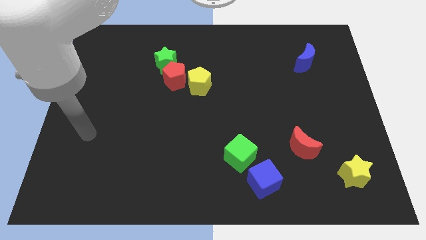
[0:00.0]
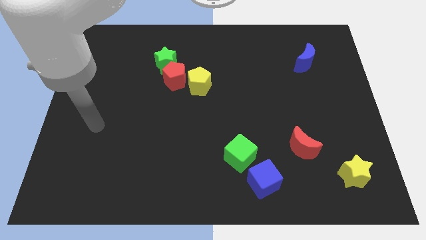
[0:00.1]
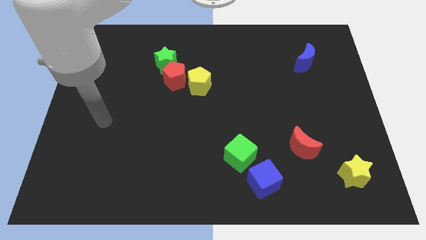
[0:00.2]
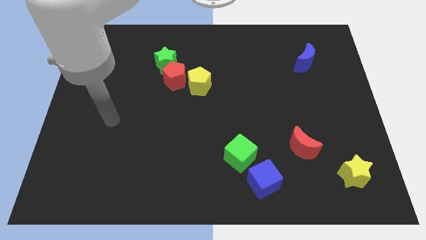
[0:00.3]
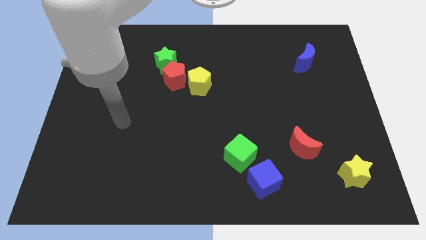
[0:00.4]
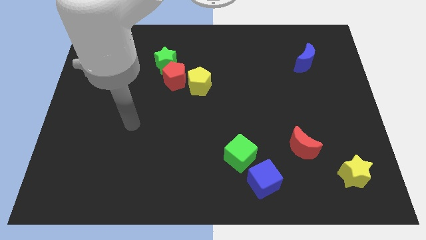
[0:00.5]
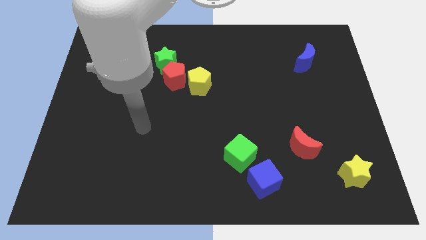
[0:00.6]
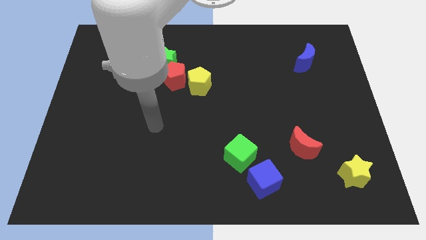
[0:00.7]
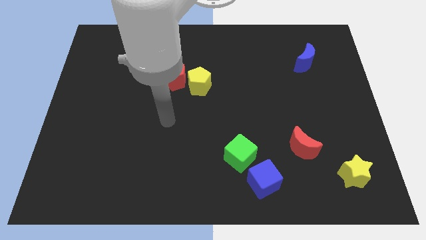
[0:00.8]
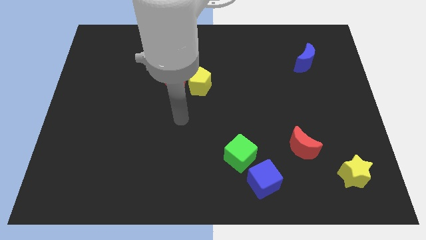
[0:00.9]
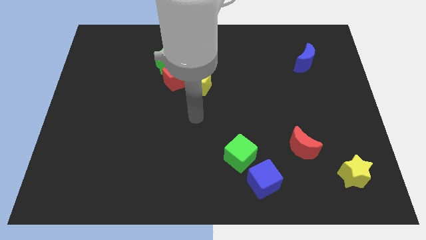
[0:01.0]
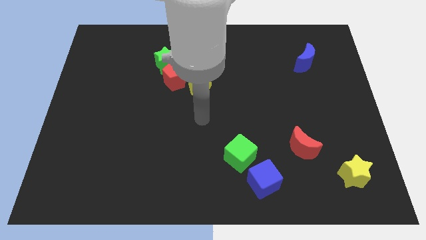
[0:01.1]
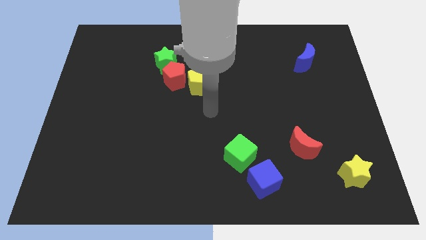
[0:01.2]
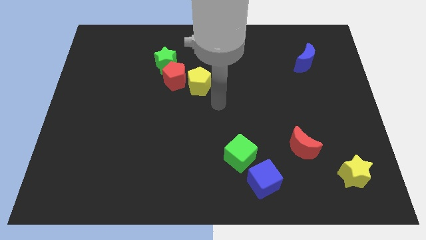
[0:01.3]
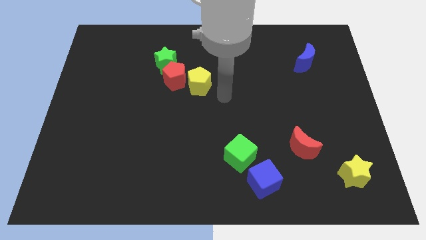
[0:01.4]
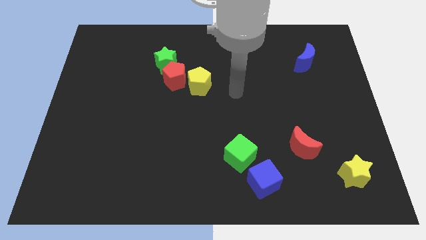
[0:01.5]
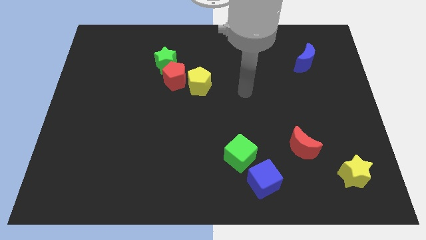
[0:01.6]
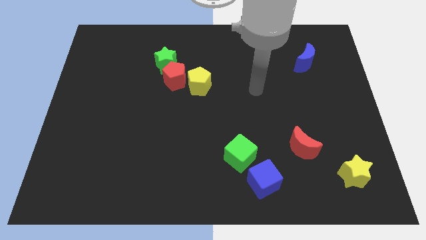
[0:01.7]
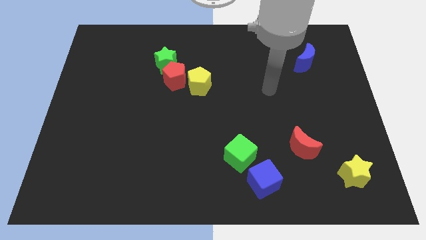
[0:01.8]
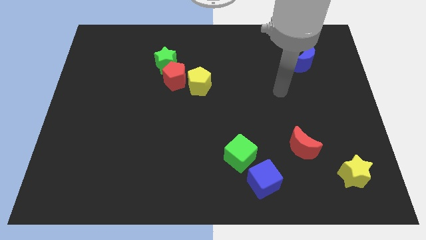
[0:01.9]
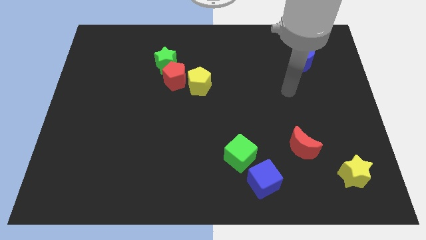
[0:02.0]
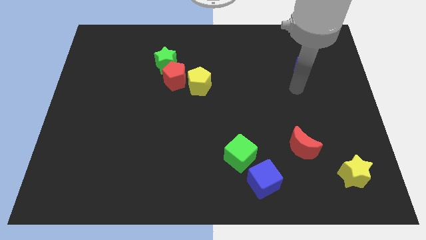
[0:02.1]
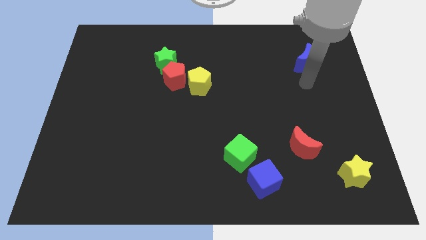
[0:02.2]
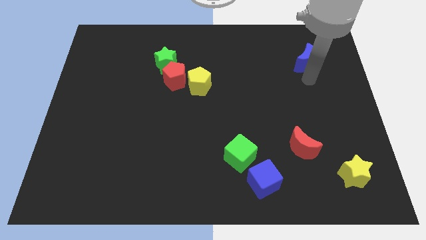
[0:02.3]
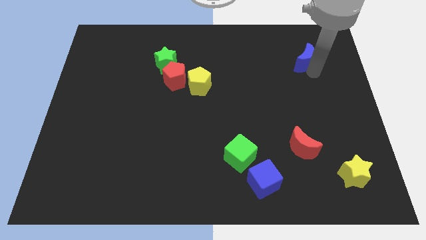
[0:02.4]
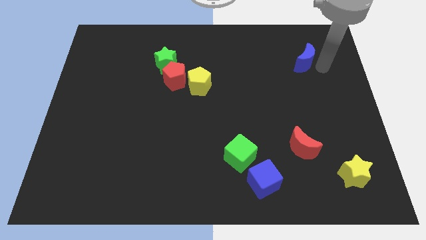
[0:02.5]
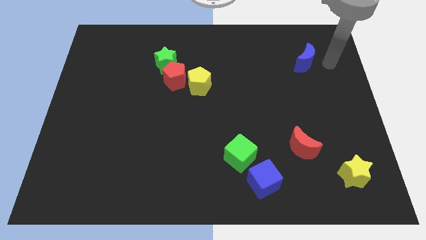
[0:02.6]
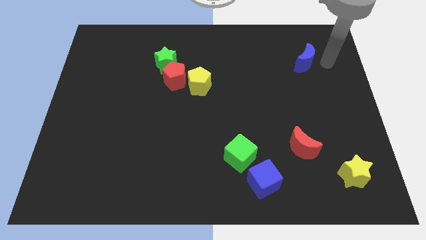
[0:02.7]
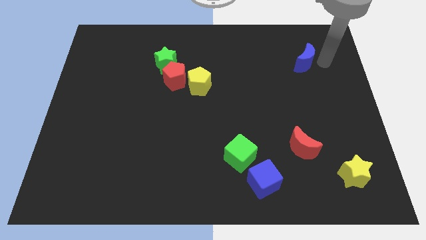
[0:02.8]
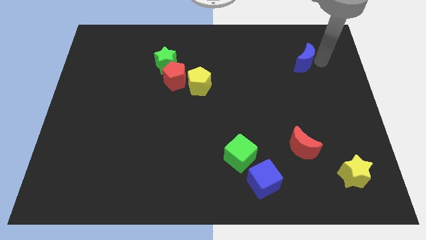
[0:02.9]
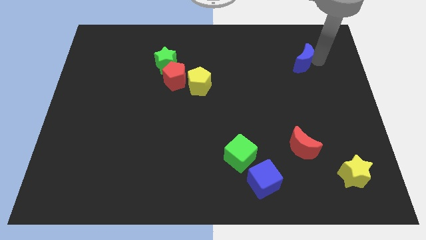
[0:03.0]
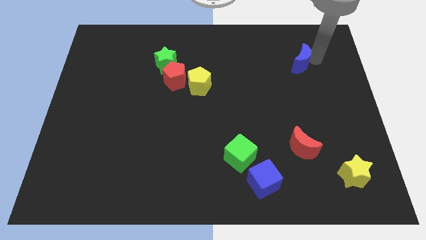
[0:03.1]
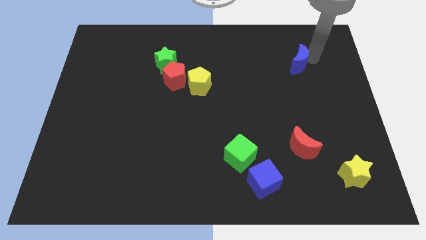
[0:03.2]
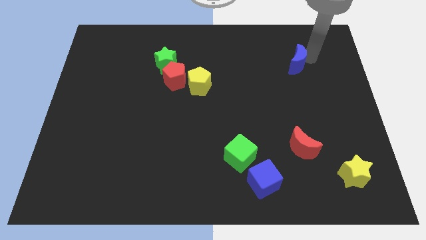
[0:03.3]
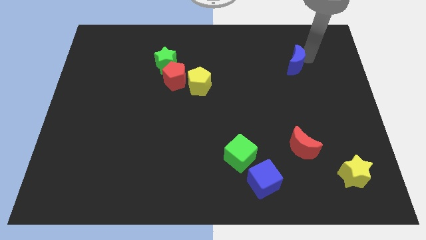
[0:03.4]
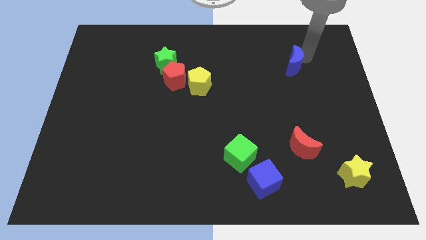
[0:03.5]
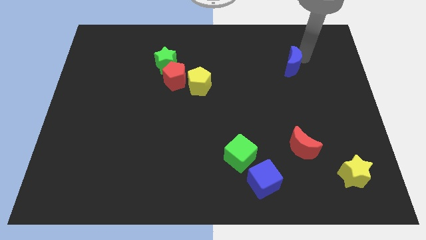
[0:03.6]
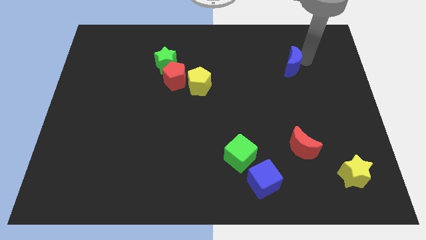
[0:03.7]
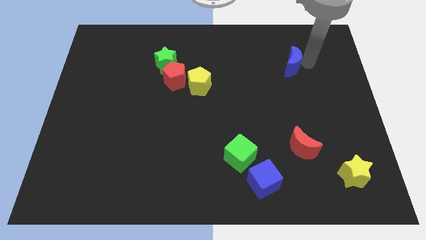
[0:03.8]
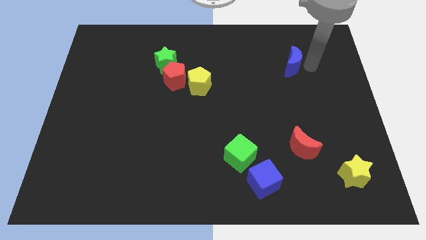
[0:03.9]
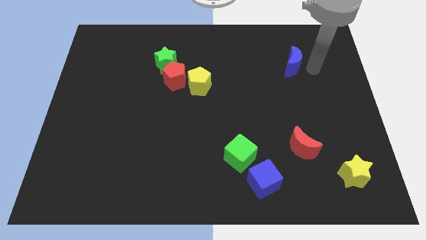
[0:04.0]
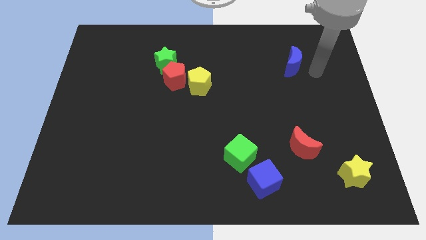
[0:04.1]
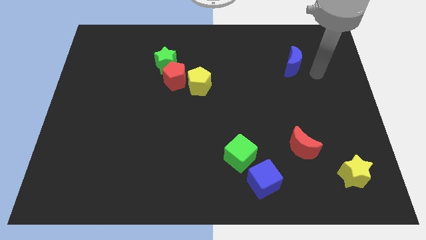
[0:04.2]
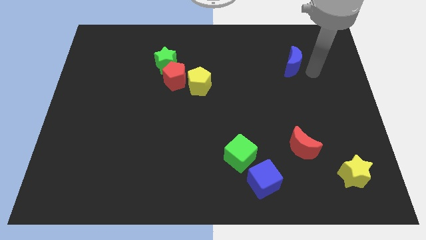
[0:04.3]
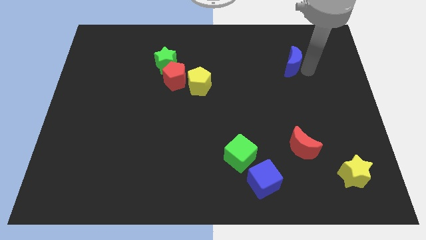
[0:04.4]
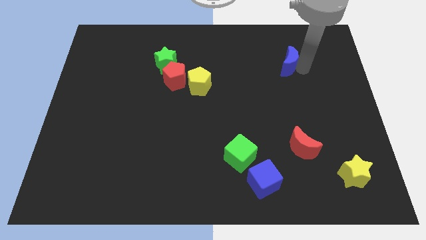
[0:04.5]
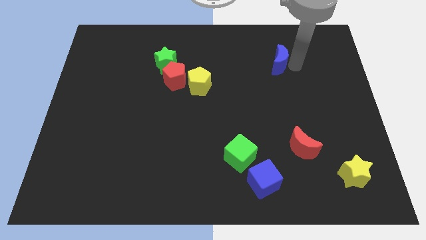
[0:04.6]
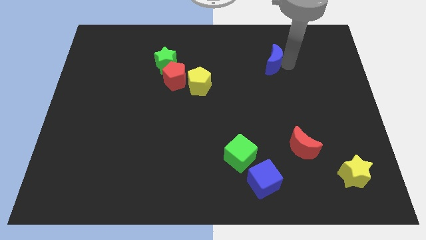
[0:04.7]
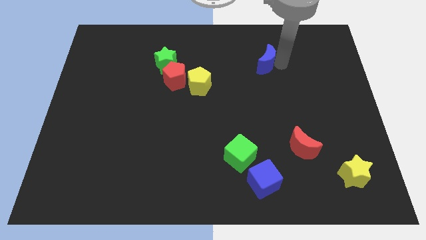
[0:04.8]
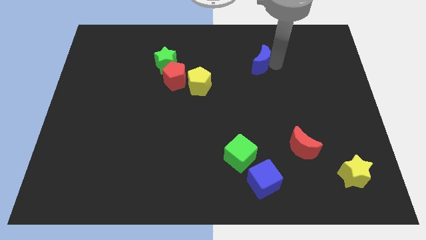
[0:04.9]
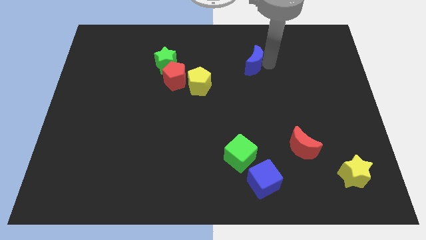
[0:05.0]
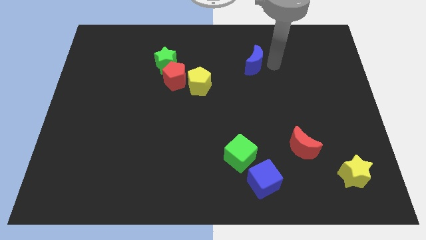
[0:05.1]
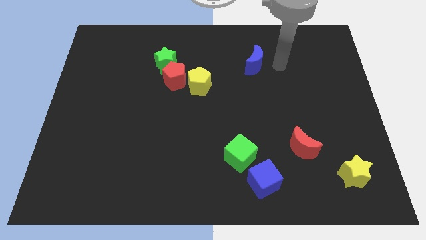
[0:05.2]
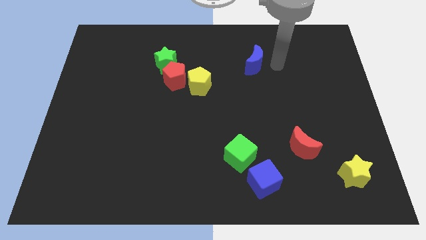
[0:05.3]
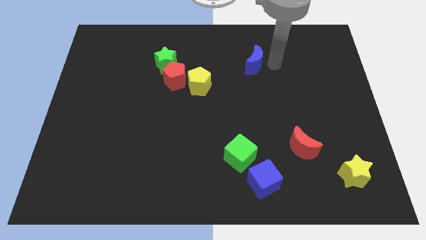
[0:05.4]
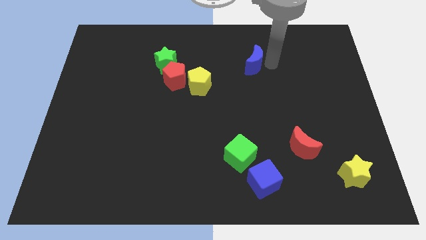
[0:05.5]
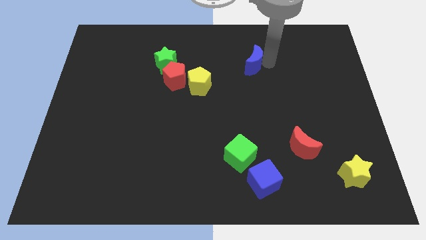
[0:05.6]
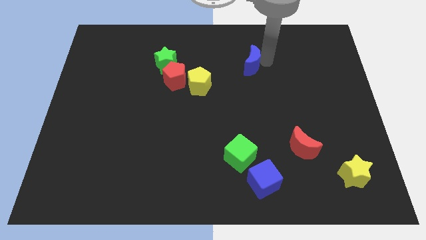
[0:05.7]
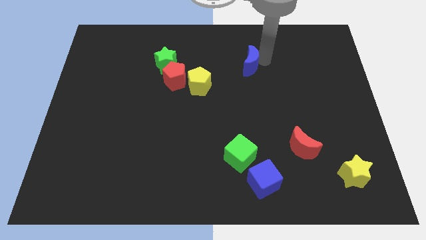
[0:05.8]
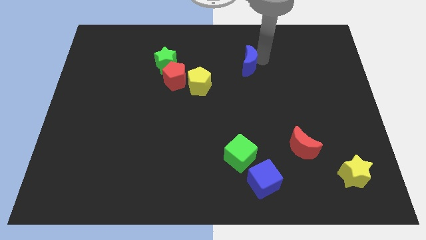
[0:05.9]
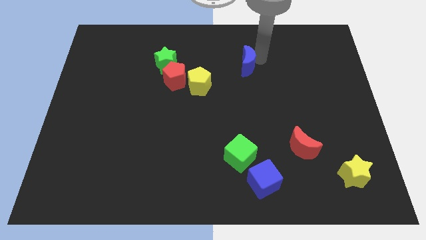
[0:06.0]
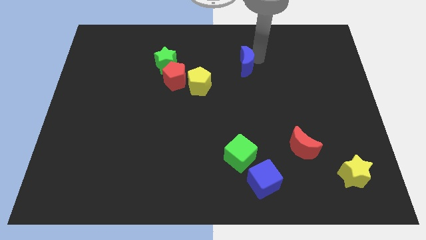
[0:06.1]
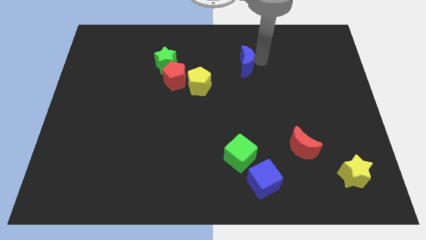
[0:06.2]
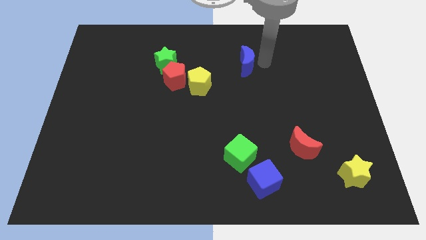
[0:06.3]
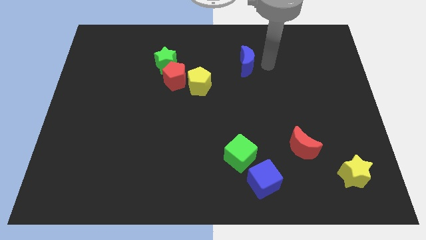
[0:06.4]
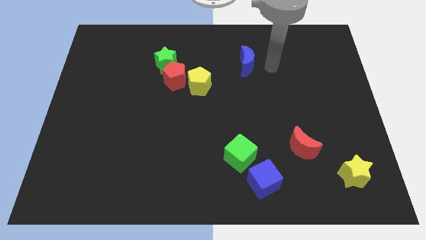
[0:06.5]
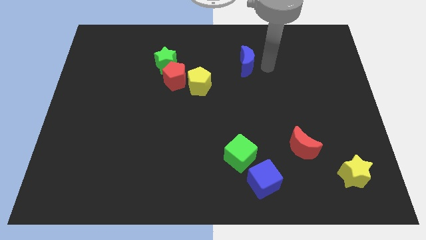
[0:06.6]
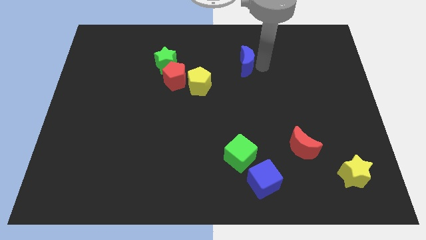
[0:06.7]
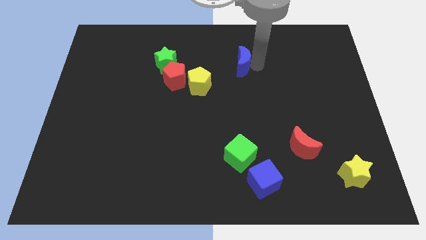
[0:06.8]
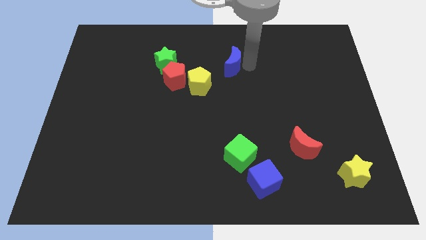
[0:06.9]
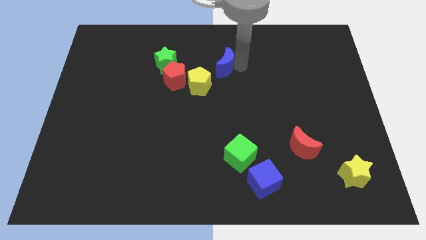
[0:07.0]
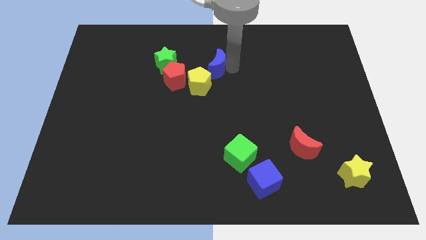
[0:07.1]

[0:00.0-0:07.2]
push the blue moon to the top side of the yellow pentagon
